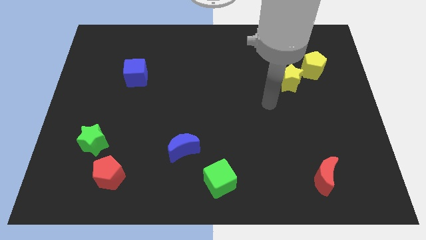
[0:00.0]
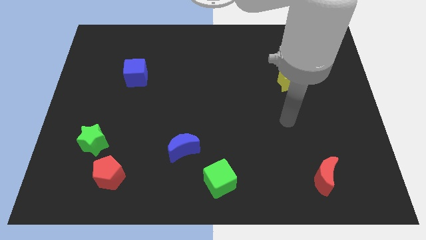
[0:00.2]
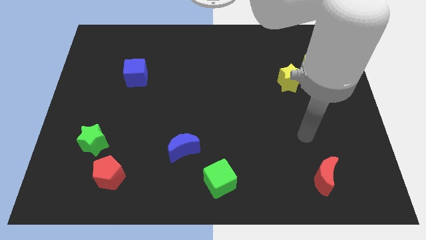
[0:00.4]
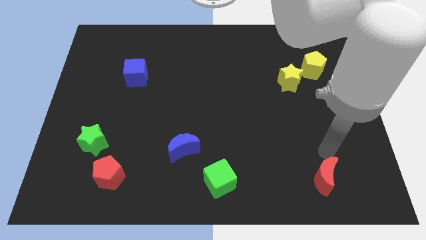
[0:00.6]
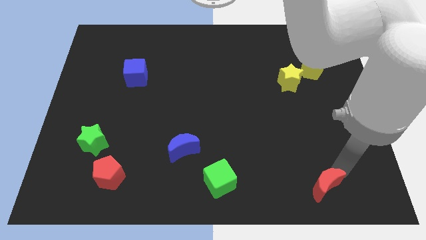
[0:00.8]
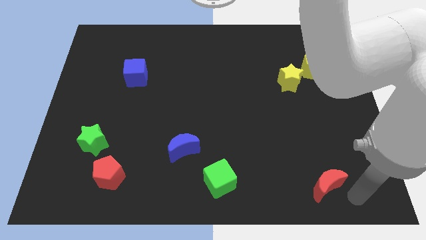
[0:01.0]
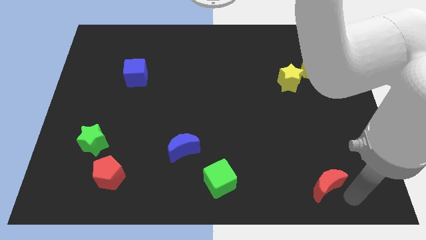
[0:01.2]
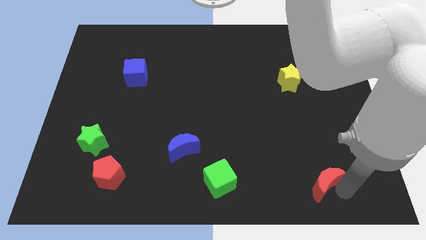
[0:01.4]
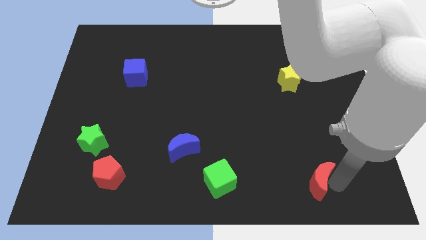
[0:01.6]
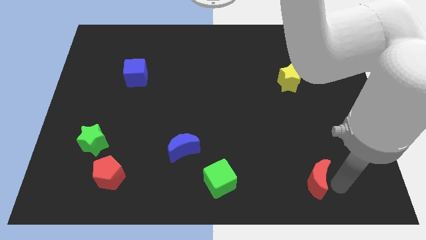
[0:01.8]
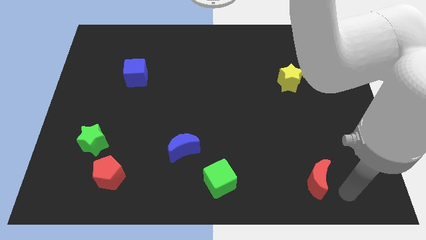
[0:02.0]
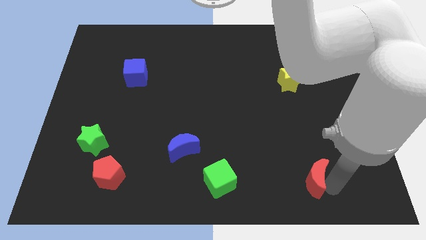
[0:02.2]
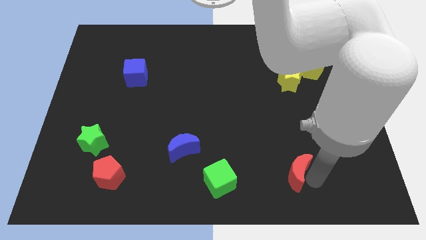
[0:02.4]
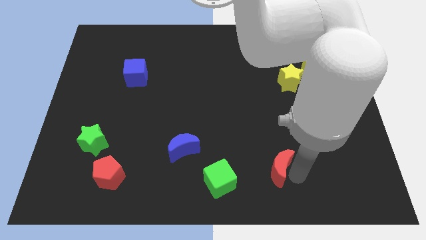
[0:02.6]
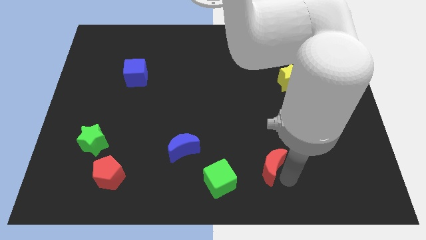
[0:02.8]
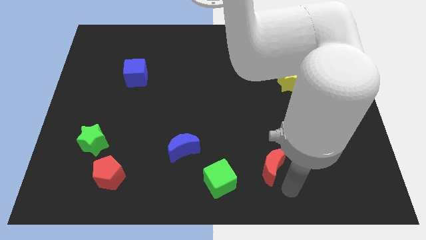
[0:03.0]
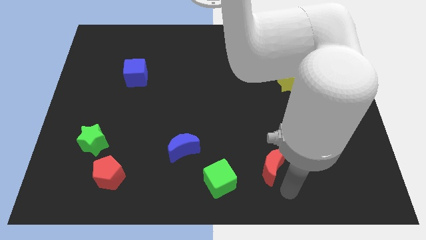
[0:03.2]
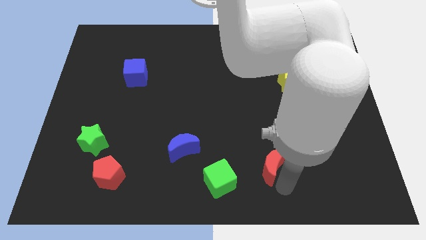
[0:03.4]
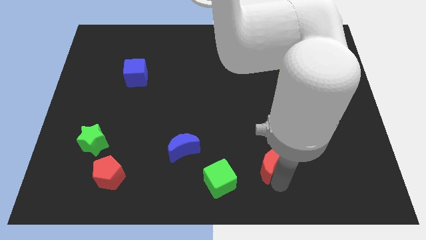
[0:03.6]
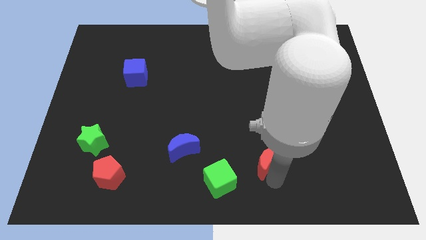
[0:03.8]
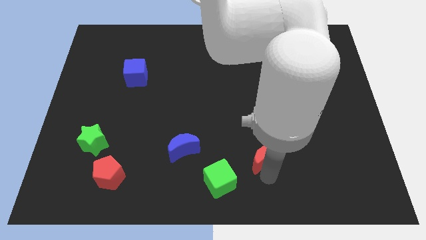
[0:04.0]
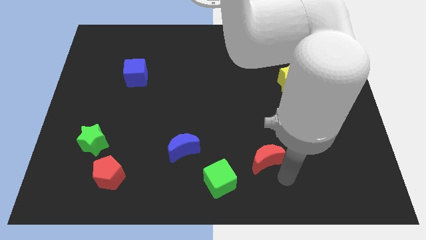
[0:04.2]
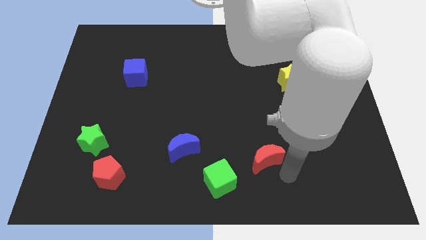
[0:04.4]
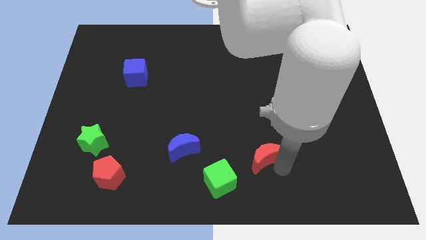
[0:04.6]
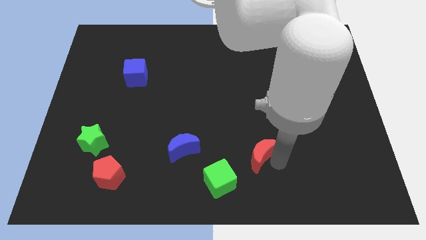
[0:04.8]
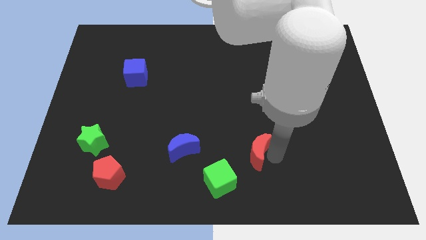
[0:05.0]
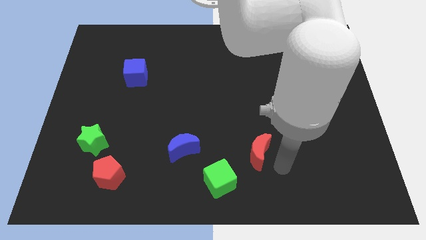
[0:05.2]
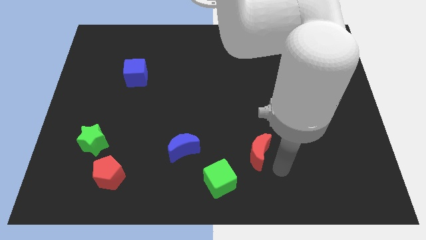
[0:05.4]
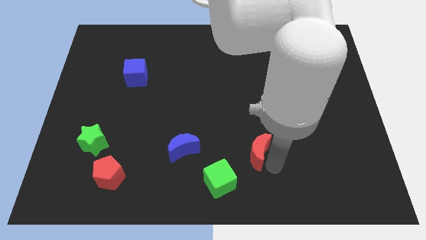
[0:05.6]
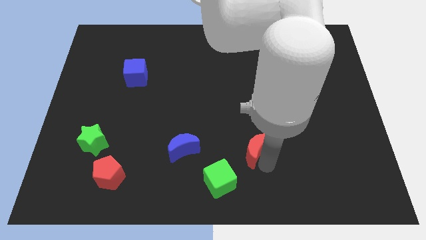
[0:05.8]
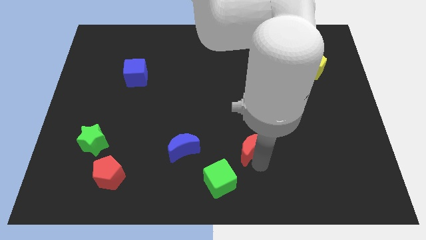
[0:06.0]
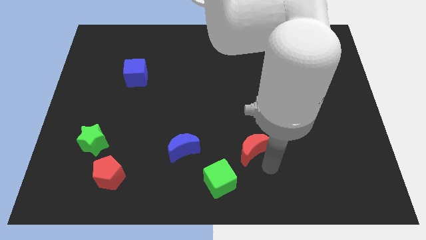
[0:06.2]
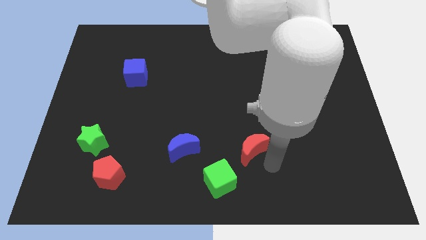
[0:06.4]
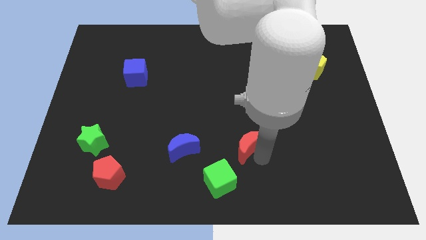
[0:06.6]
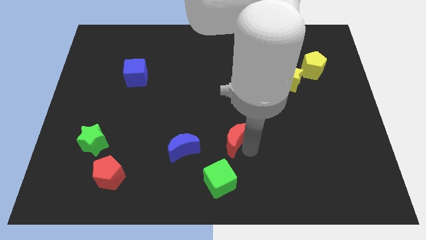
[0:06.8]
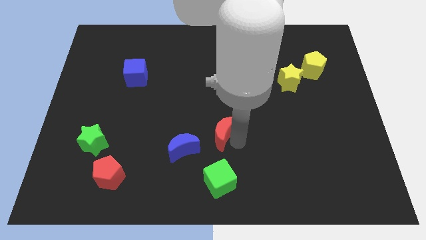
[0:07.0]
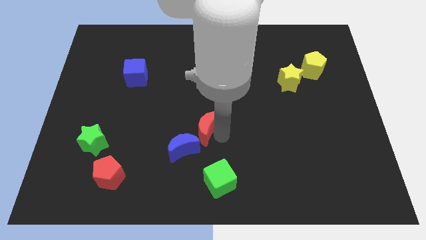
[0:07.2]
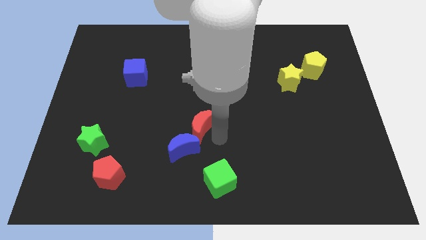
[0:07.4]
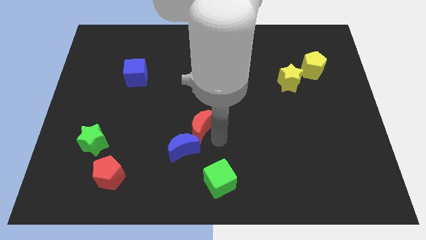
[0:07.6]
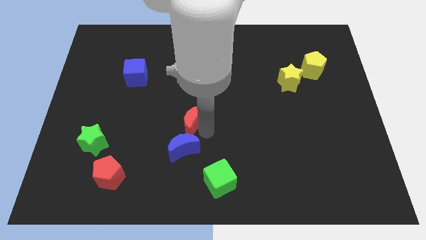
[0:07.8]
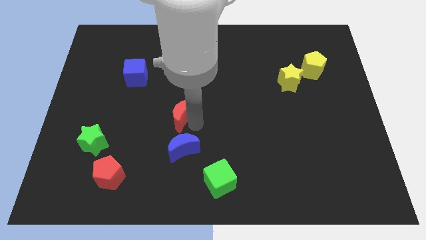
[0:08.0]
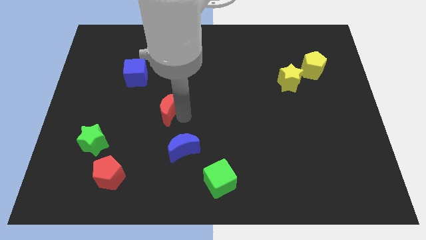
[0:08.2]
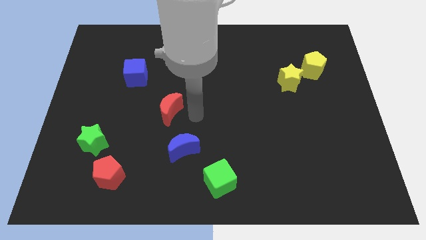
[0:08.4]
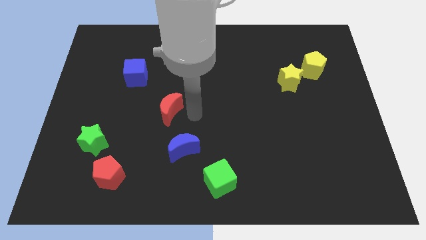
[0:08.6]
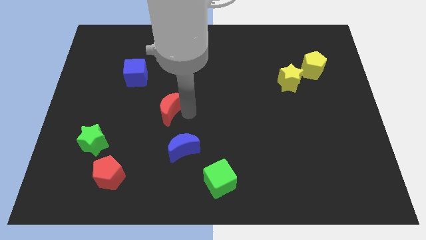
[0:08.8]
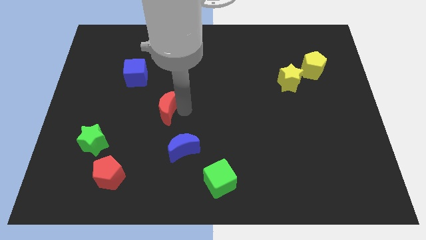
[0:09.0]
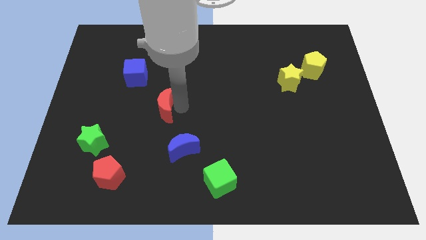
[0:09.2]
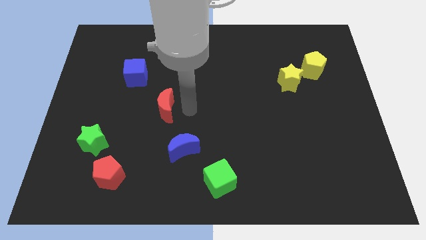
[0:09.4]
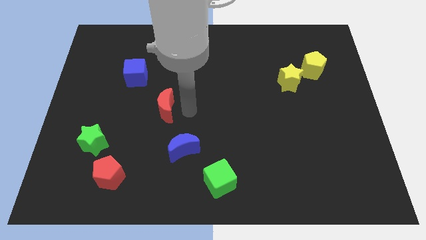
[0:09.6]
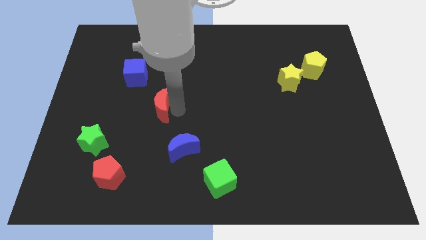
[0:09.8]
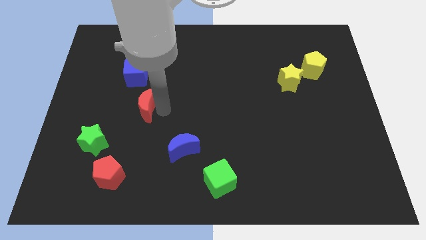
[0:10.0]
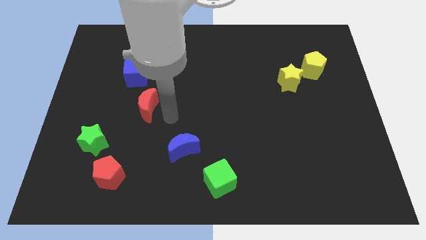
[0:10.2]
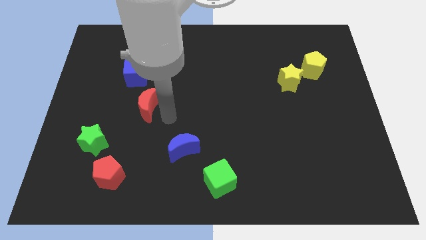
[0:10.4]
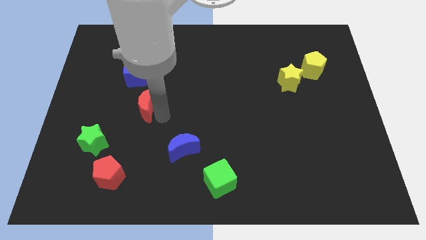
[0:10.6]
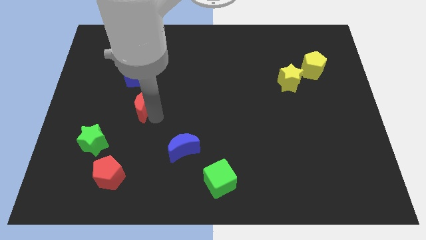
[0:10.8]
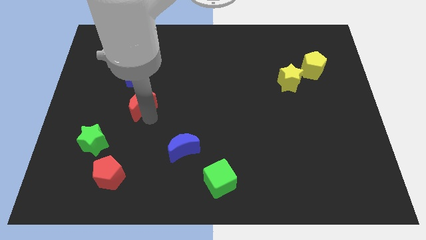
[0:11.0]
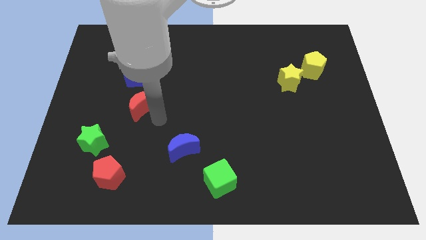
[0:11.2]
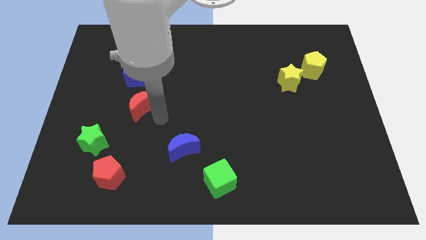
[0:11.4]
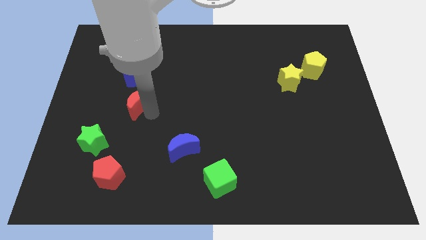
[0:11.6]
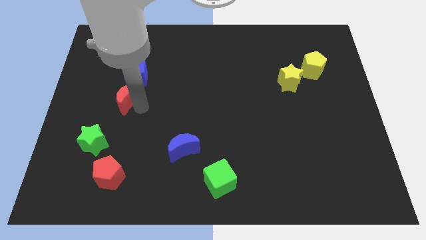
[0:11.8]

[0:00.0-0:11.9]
put the red moon to the bottom left of the blue cube

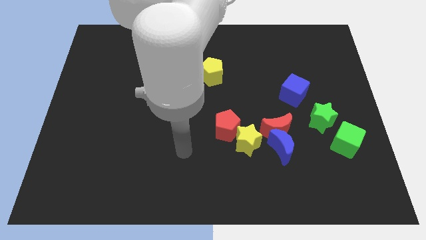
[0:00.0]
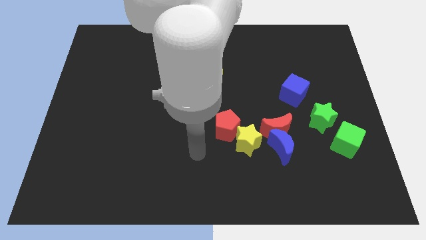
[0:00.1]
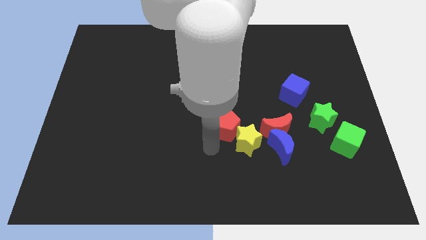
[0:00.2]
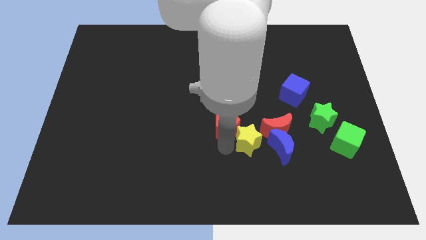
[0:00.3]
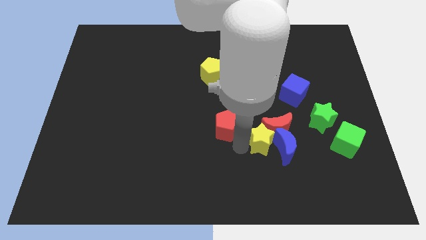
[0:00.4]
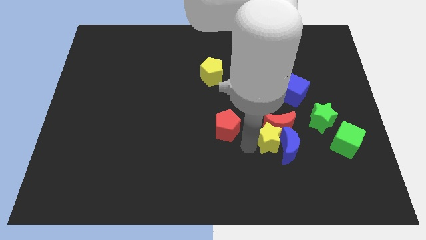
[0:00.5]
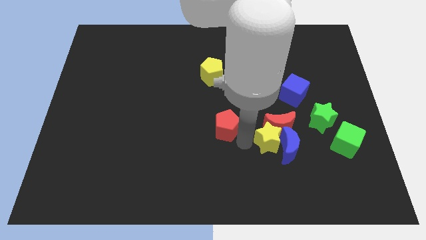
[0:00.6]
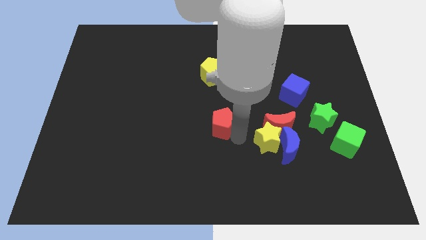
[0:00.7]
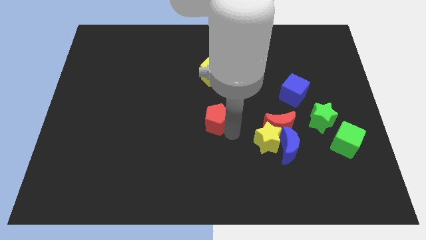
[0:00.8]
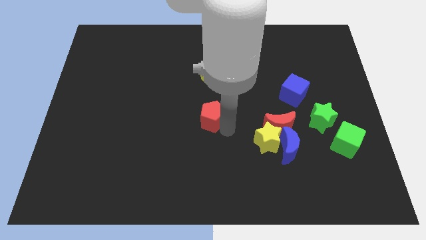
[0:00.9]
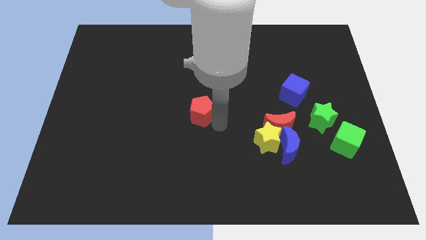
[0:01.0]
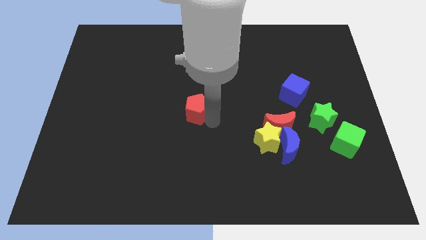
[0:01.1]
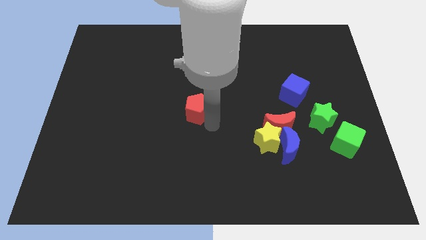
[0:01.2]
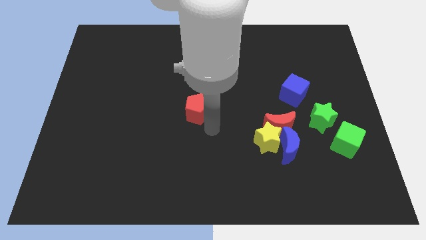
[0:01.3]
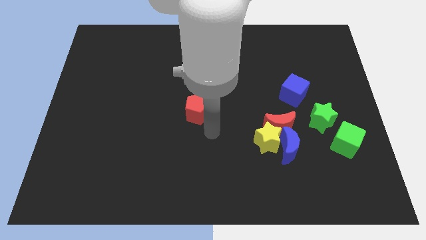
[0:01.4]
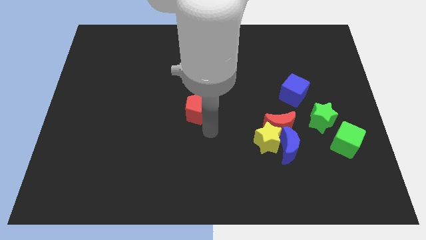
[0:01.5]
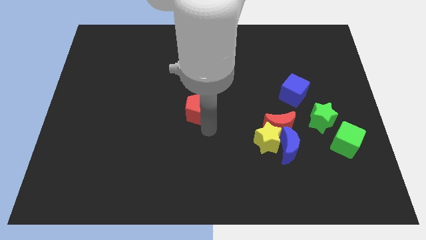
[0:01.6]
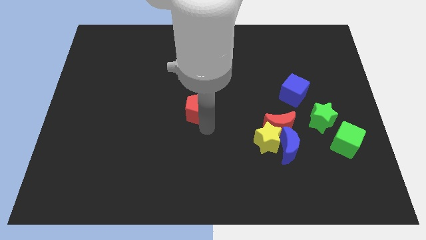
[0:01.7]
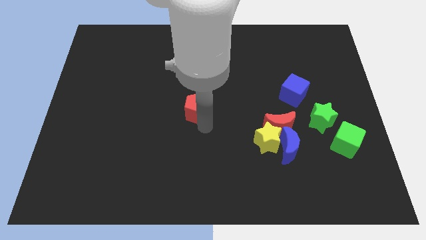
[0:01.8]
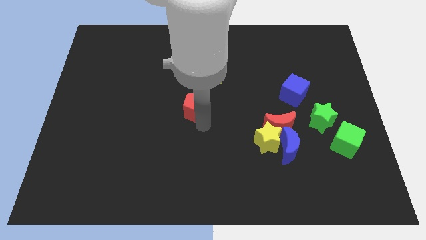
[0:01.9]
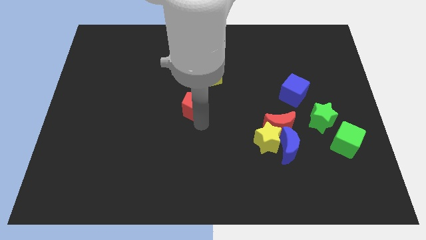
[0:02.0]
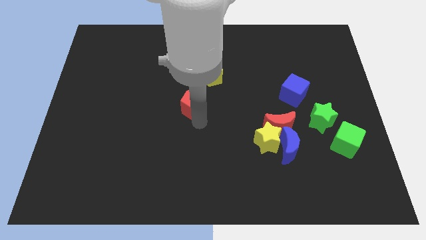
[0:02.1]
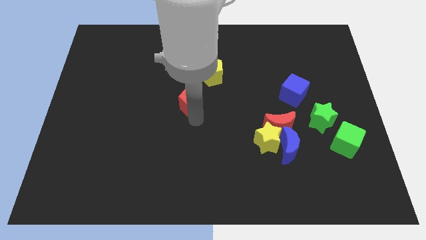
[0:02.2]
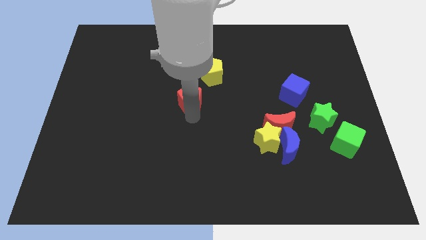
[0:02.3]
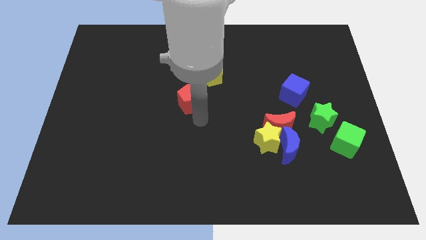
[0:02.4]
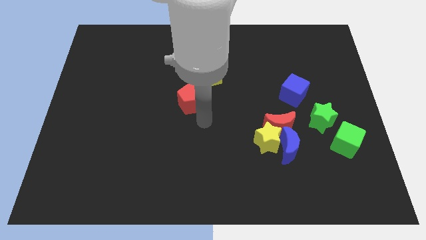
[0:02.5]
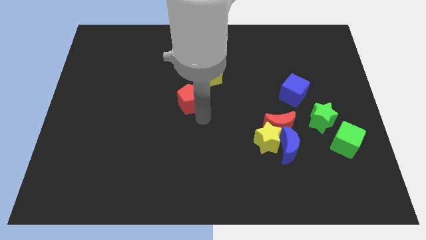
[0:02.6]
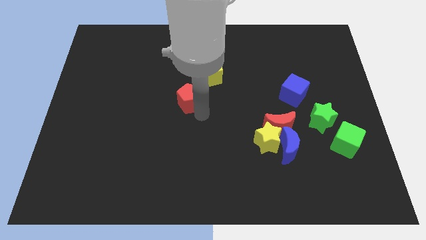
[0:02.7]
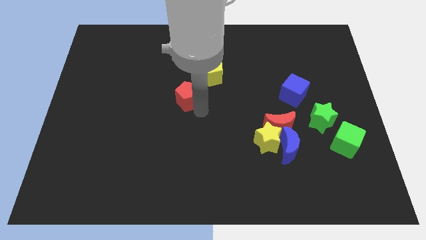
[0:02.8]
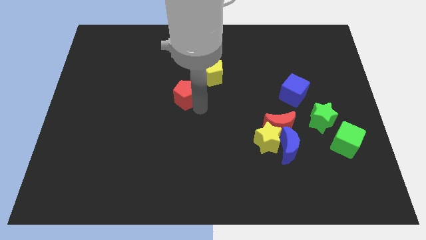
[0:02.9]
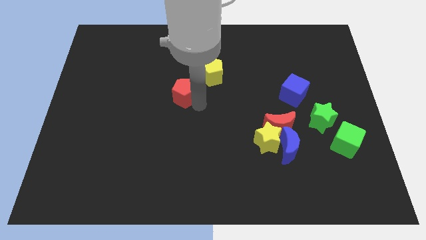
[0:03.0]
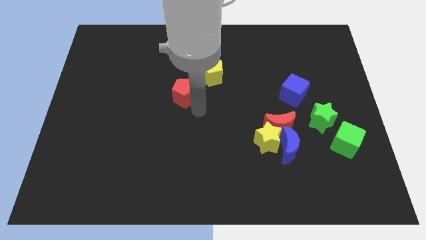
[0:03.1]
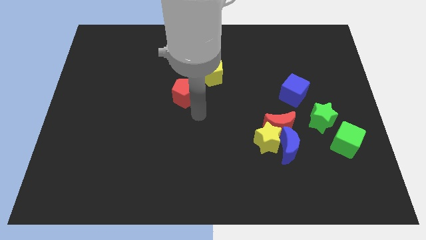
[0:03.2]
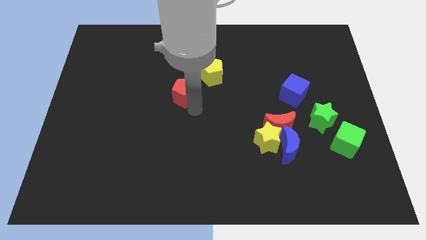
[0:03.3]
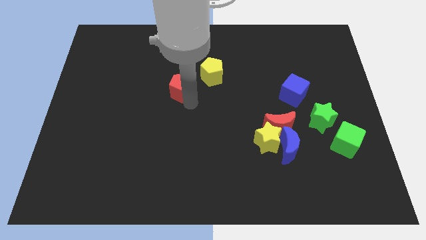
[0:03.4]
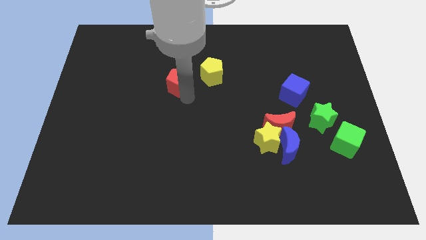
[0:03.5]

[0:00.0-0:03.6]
slide the red pentagon left of the yellow pentagon
